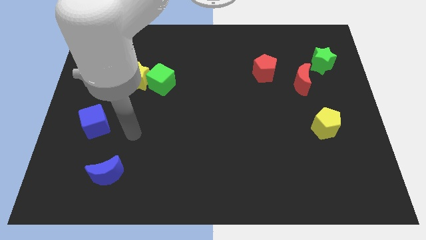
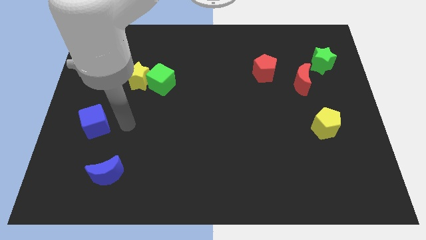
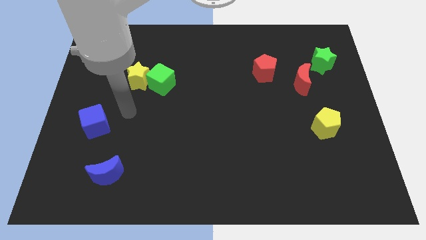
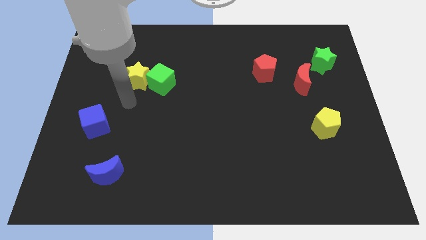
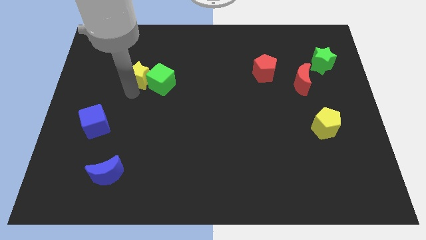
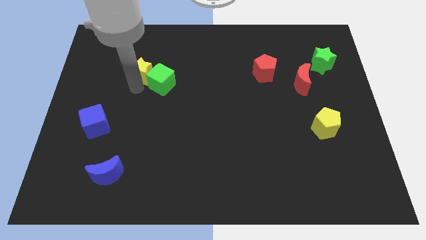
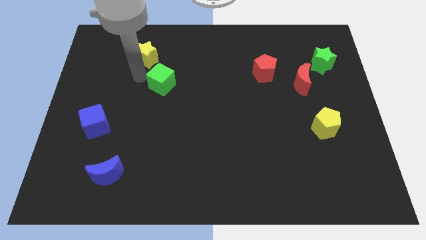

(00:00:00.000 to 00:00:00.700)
pull the green cube apart from the yellow star

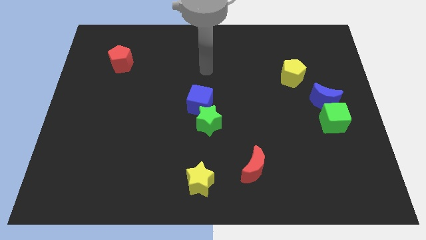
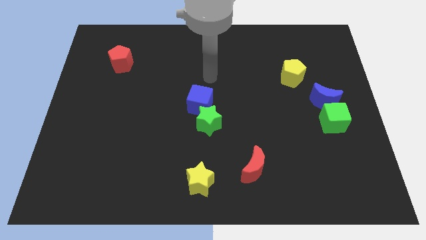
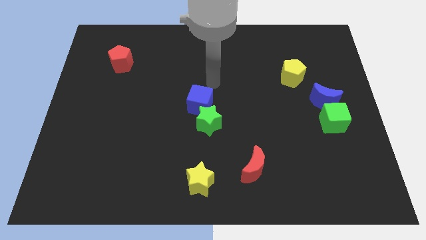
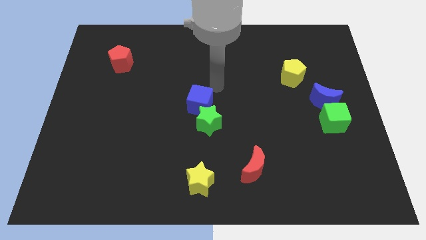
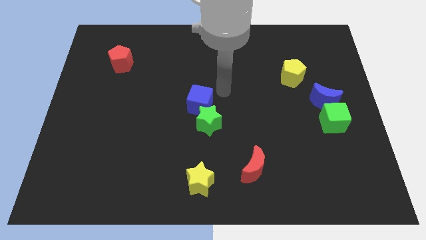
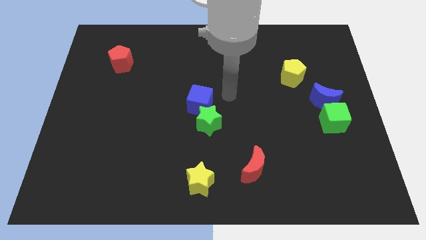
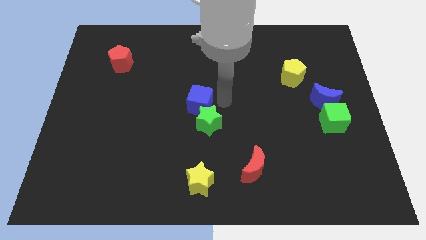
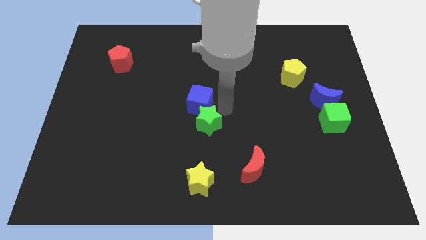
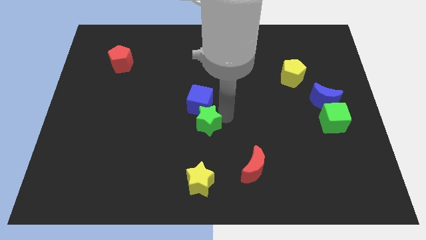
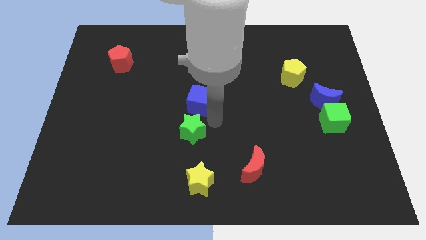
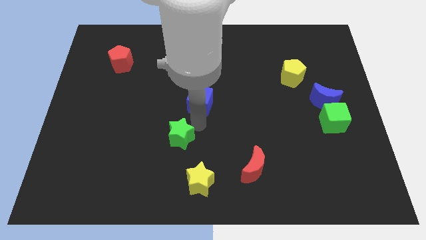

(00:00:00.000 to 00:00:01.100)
pull the blue cube apart from the green star

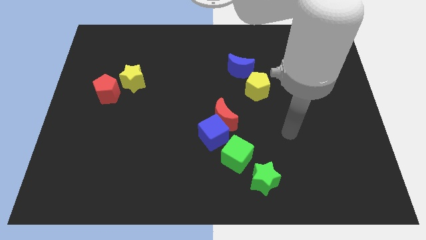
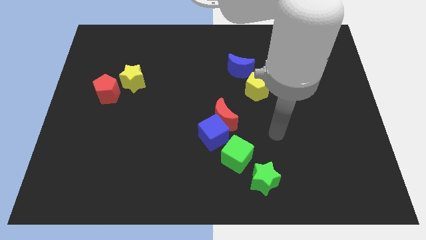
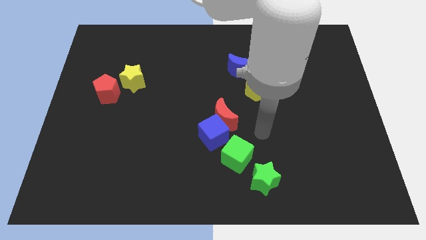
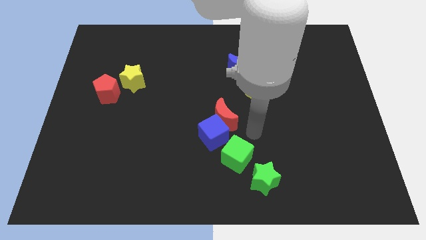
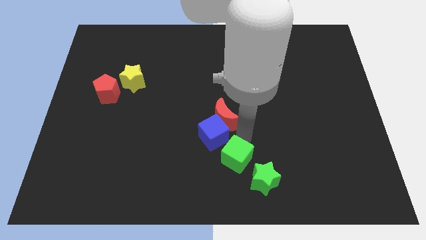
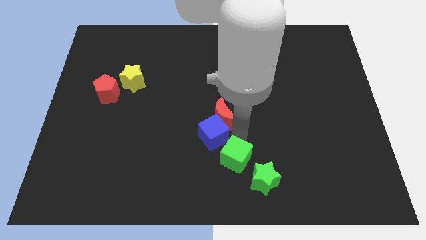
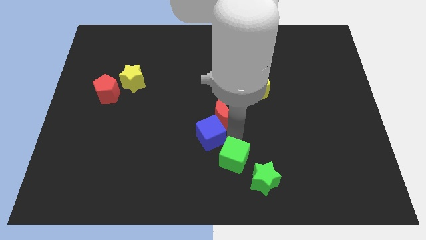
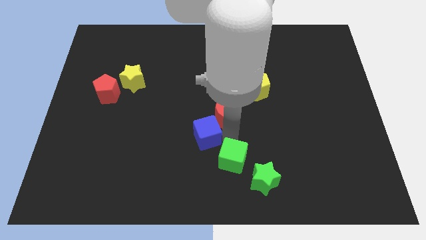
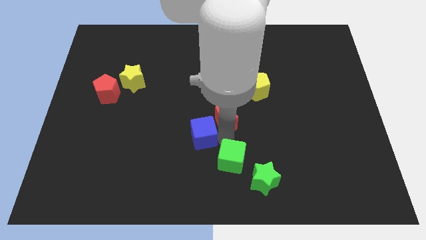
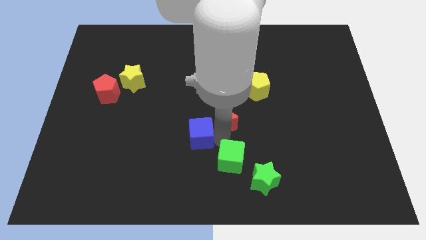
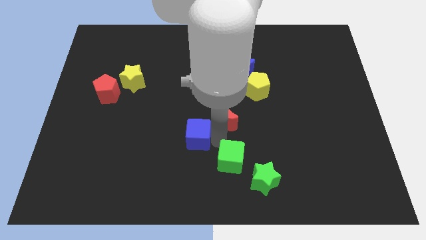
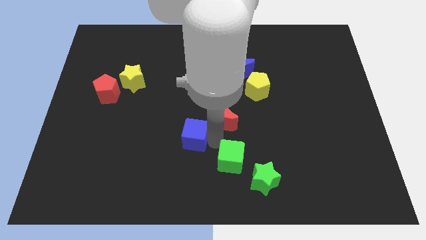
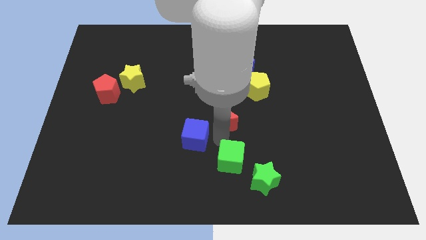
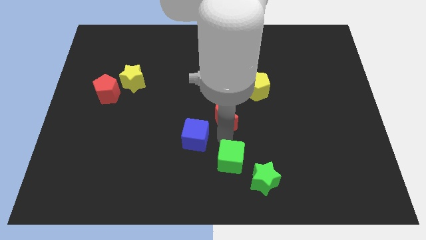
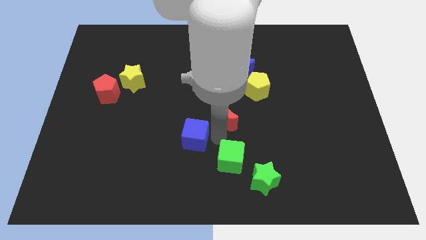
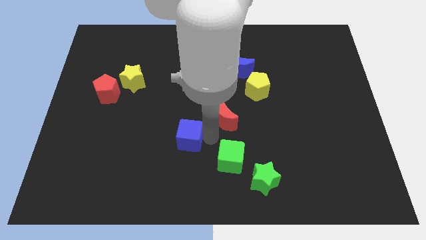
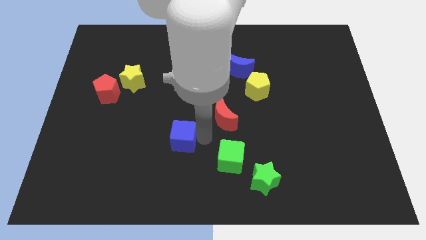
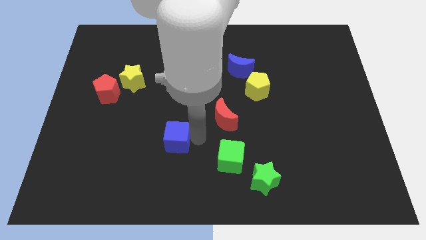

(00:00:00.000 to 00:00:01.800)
move the blue cube away from the red moon and green cube

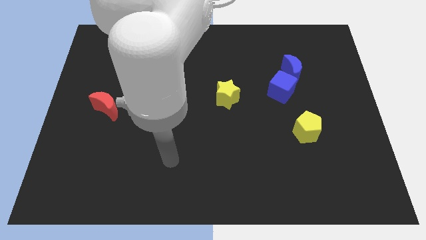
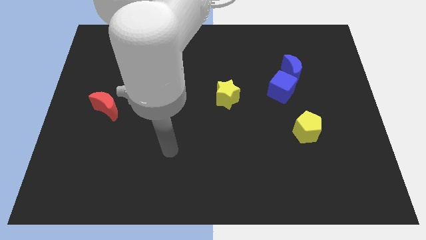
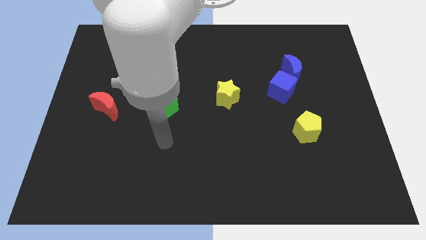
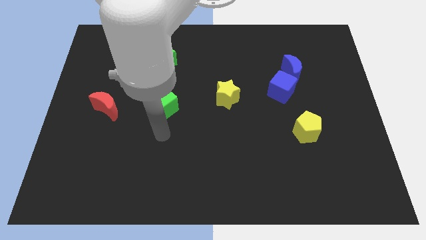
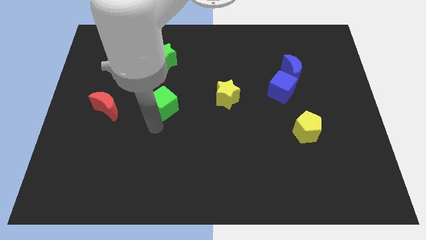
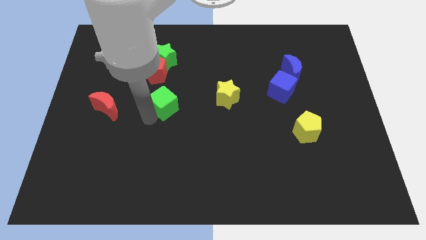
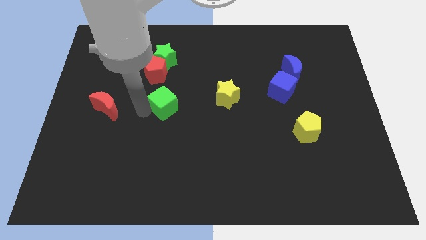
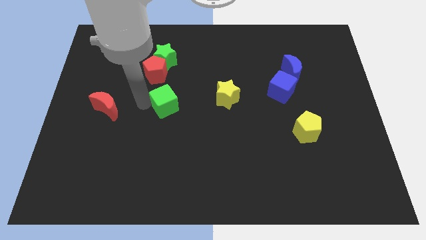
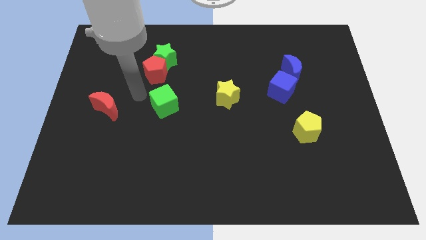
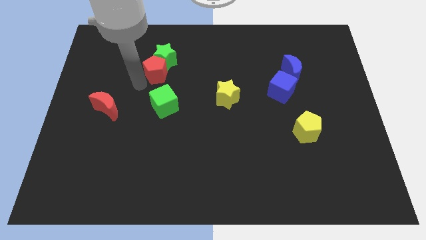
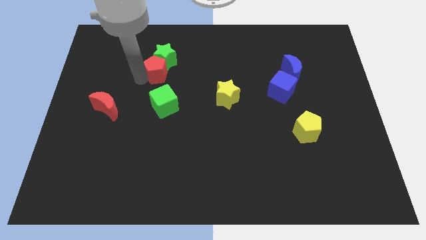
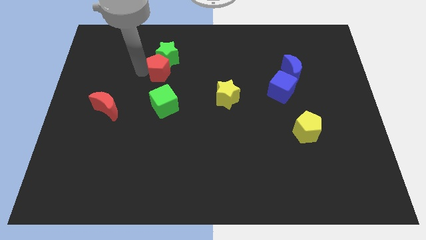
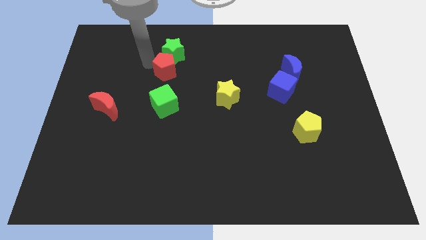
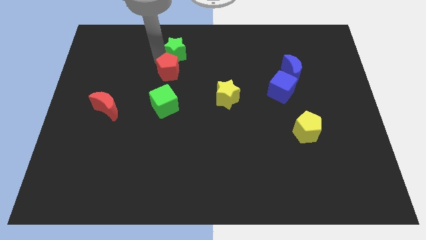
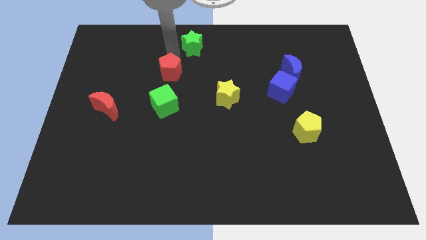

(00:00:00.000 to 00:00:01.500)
pull the red pentagon apart from the green star

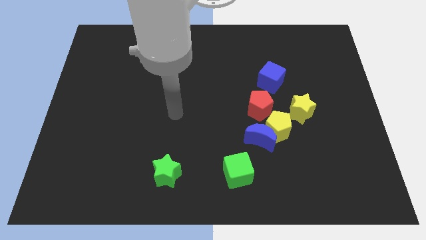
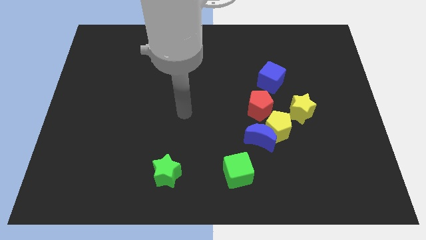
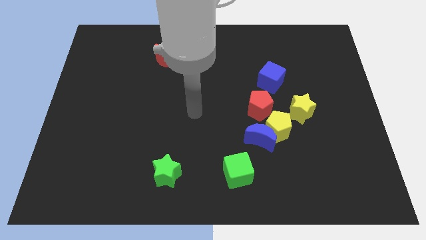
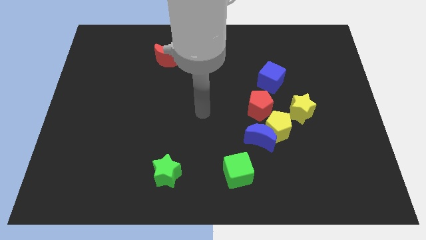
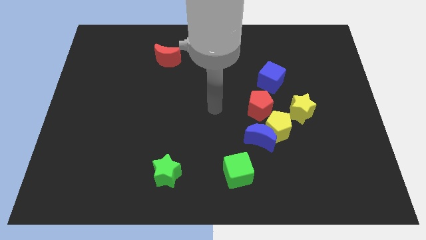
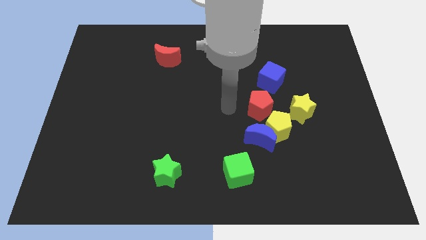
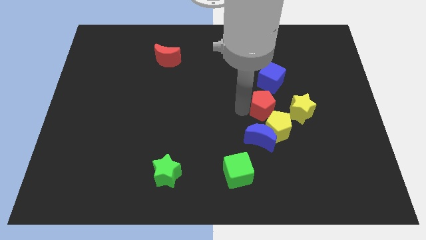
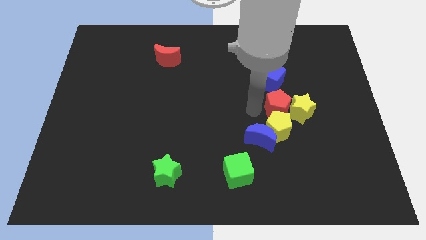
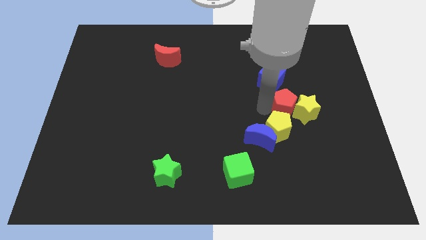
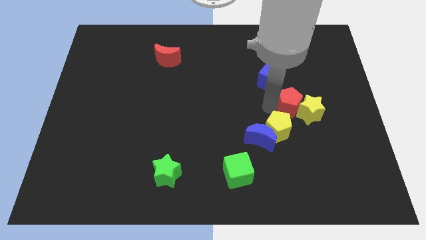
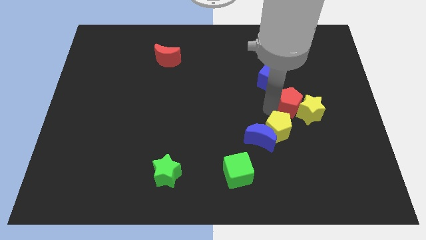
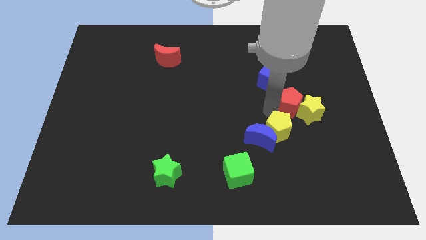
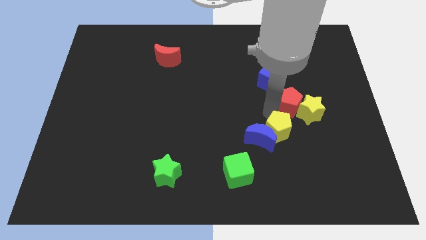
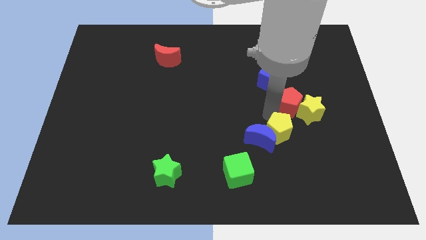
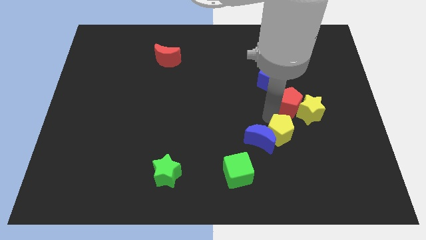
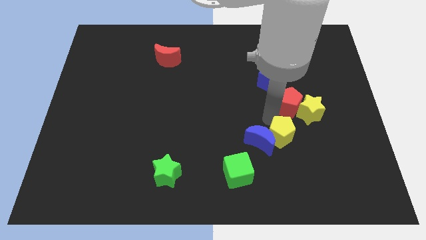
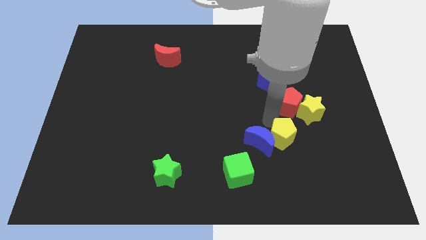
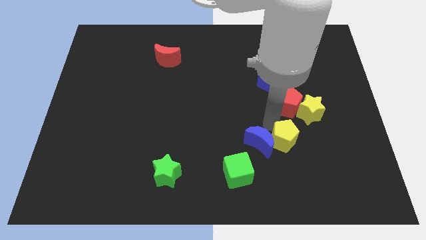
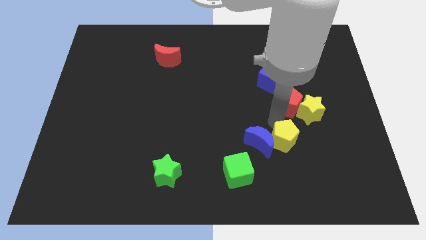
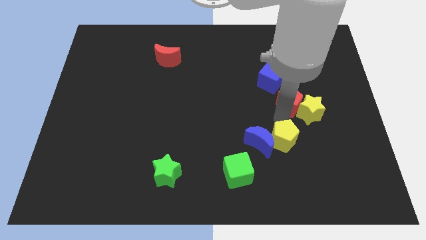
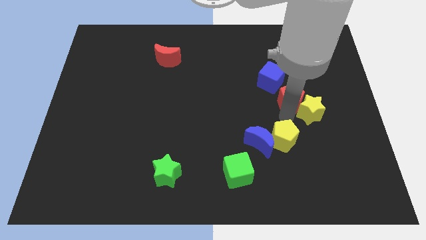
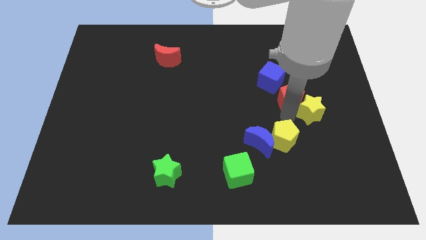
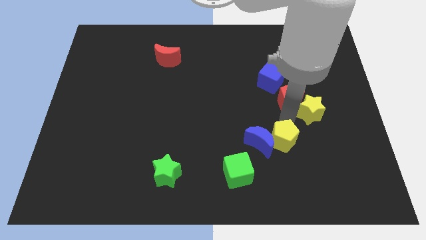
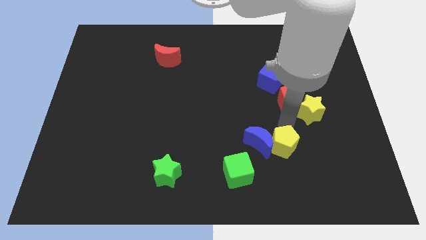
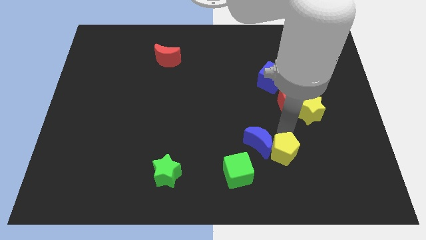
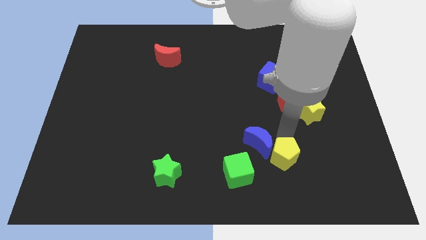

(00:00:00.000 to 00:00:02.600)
separate the yellow pentagon from the blue moon, red pentagon, and yellow star

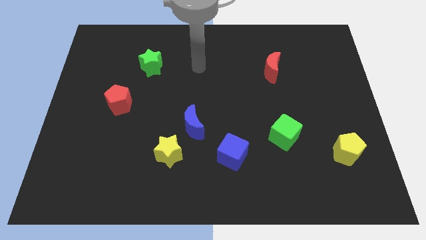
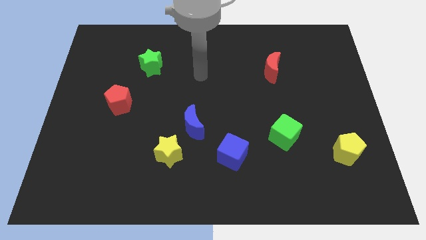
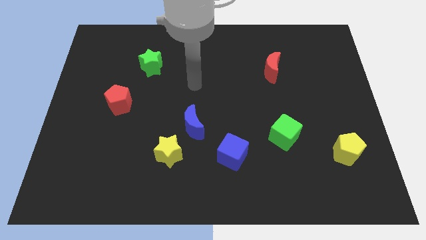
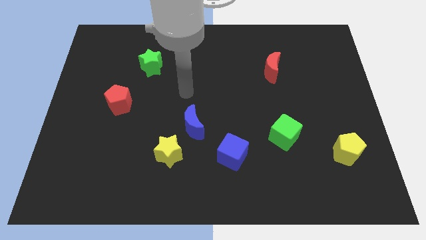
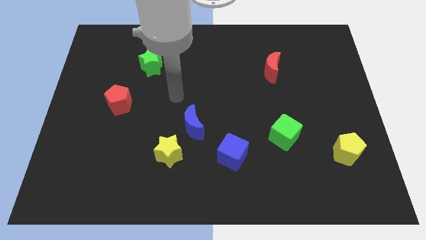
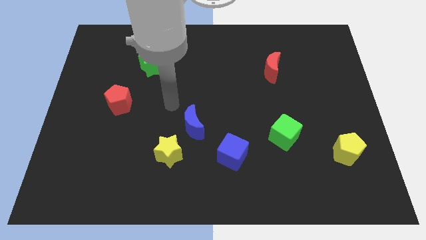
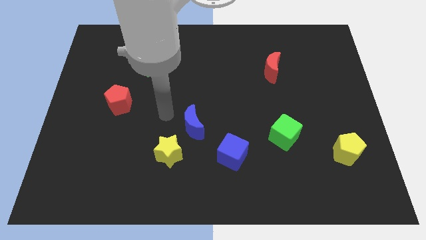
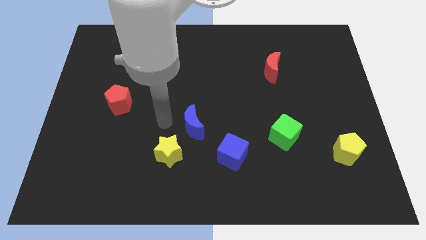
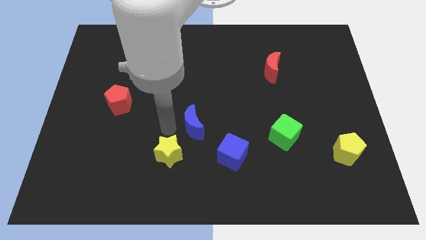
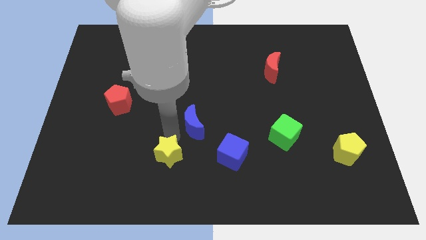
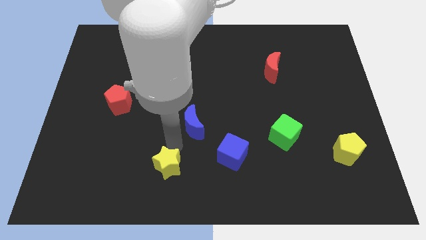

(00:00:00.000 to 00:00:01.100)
separate the blue moon from the yellow star

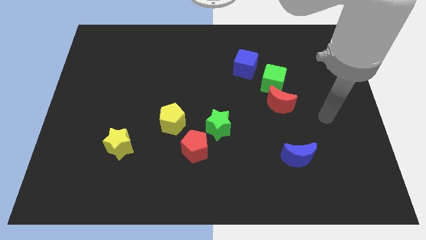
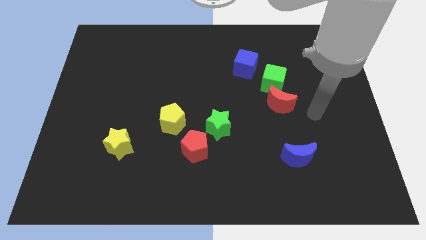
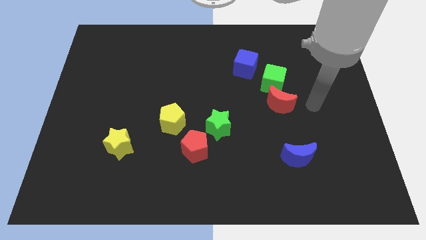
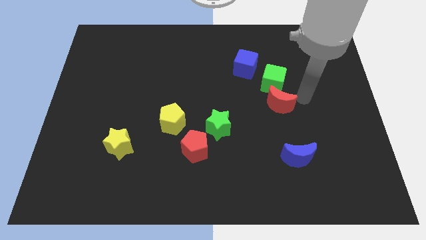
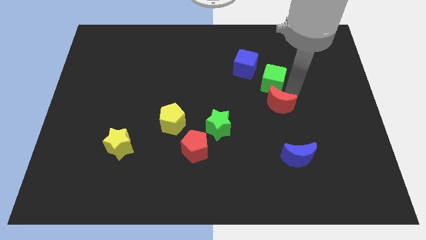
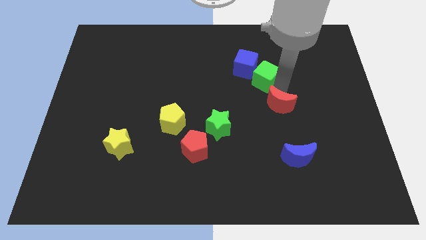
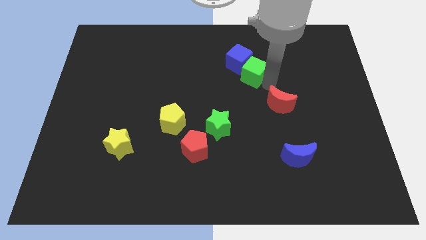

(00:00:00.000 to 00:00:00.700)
pull the red moon apart from the green cube
